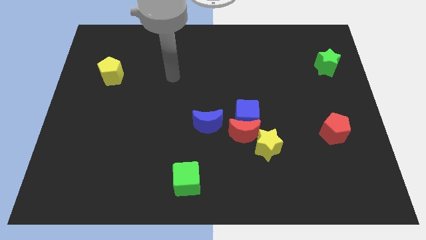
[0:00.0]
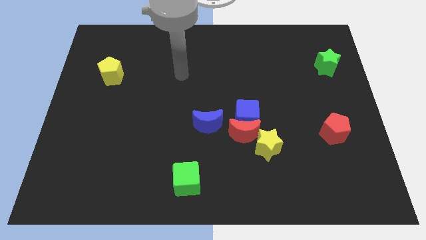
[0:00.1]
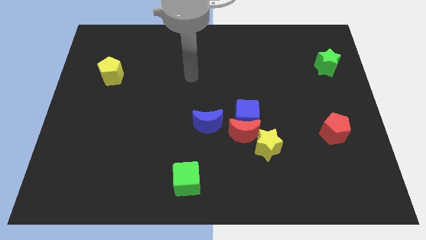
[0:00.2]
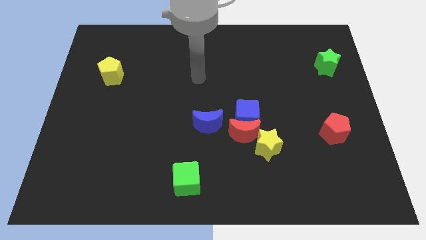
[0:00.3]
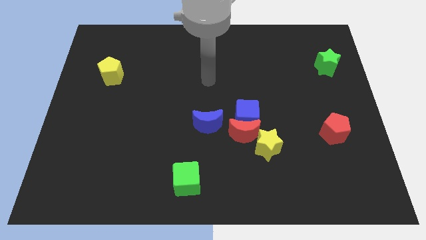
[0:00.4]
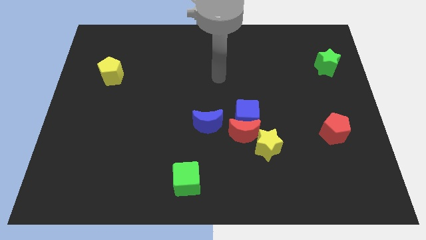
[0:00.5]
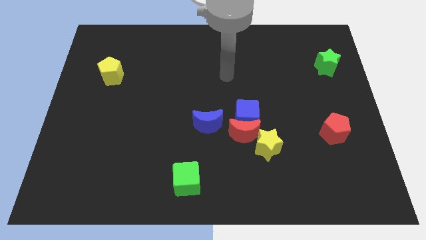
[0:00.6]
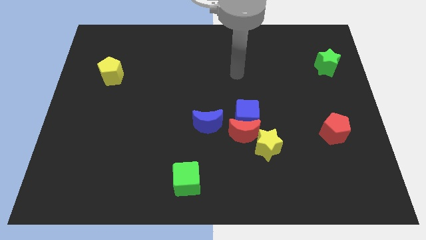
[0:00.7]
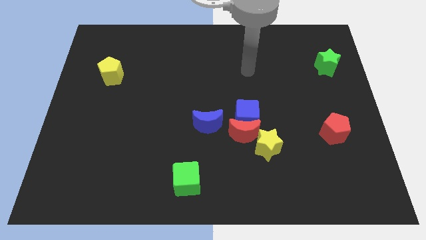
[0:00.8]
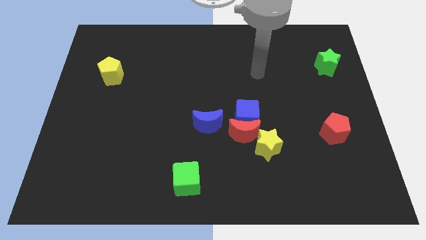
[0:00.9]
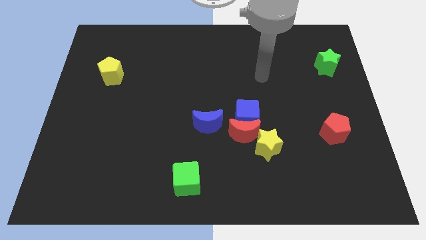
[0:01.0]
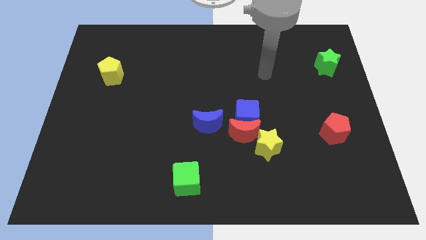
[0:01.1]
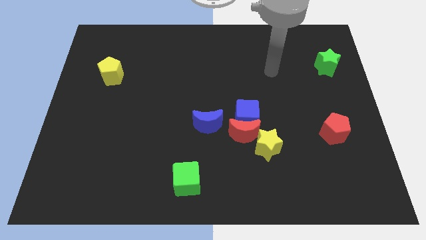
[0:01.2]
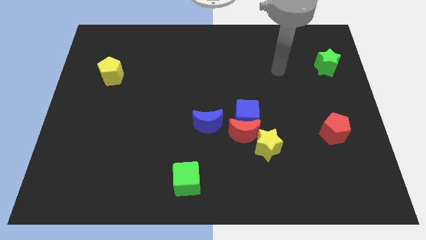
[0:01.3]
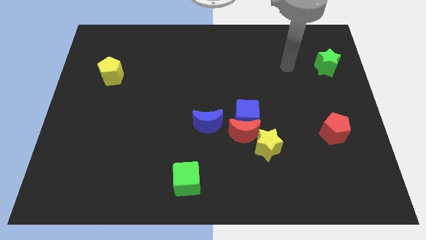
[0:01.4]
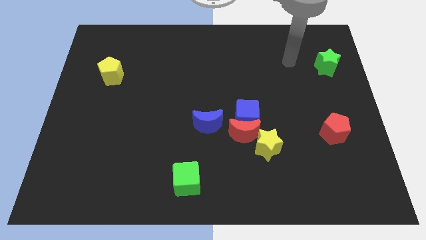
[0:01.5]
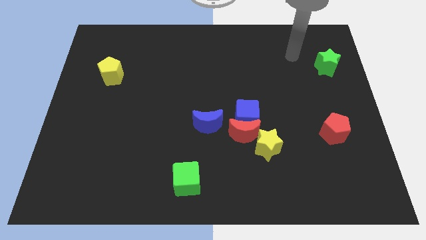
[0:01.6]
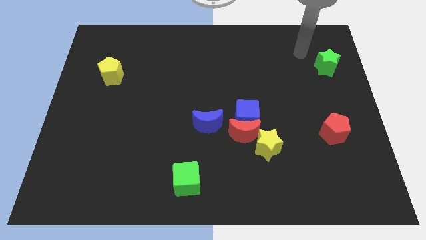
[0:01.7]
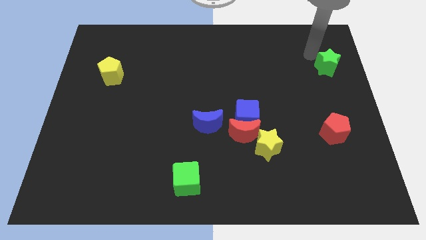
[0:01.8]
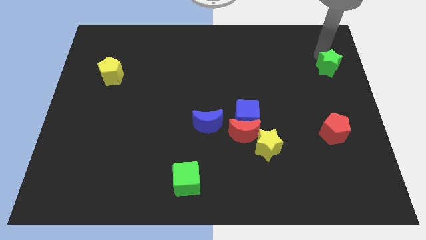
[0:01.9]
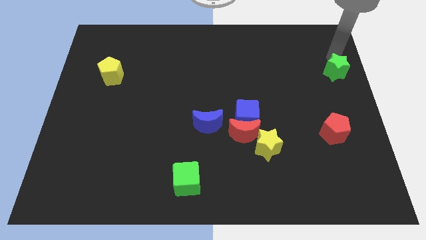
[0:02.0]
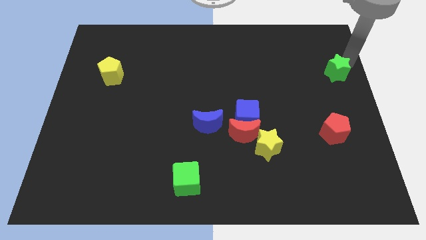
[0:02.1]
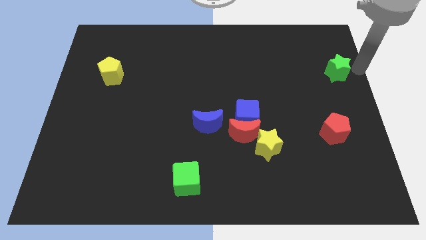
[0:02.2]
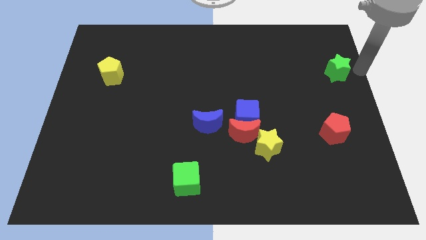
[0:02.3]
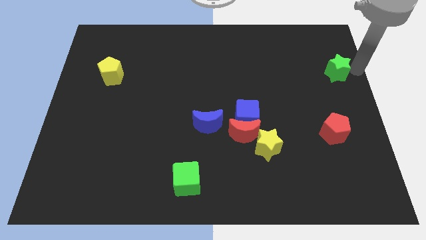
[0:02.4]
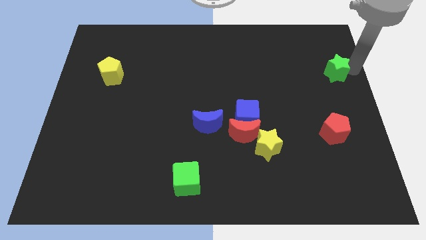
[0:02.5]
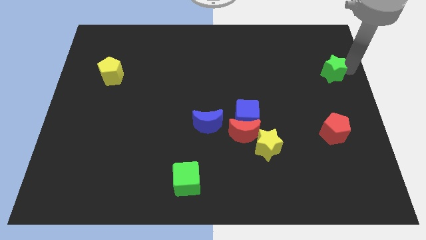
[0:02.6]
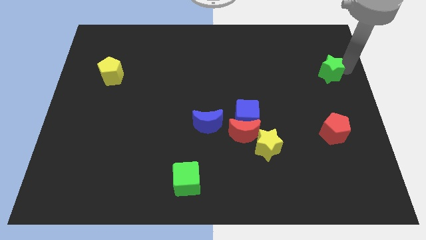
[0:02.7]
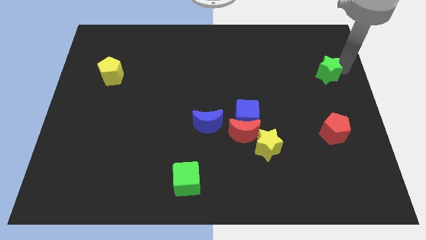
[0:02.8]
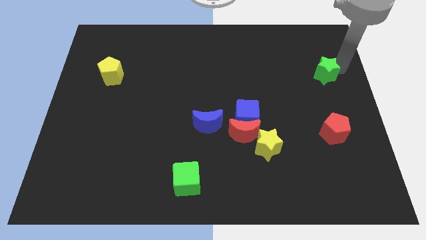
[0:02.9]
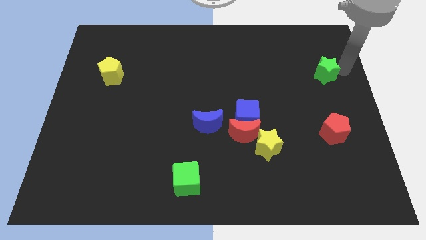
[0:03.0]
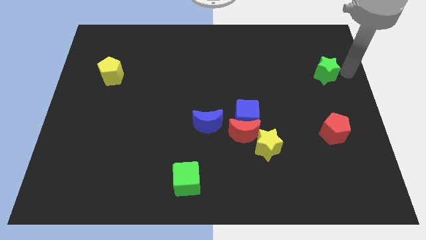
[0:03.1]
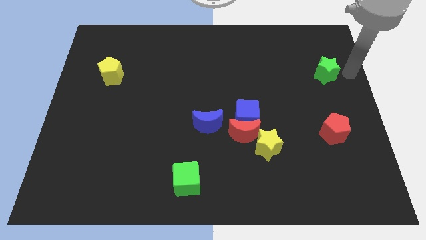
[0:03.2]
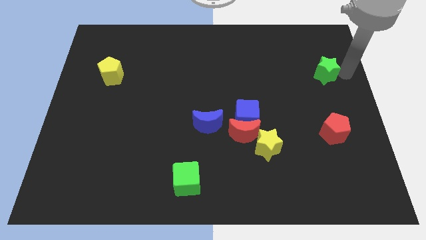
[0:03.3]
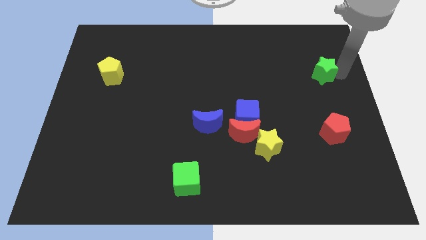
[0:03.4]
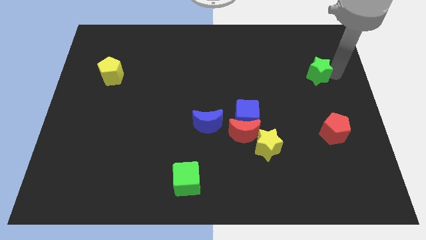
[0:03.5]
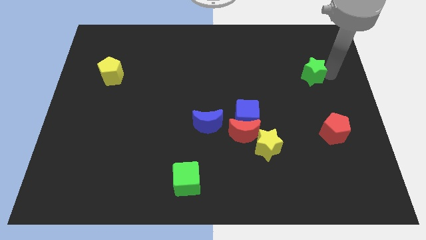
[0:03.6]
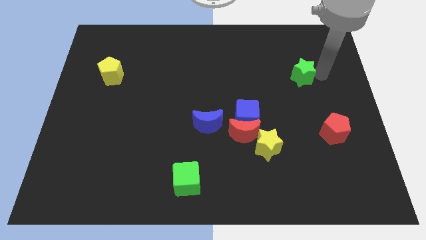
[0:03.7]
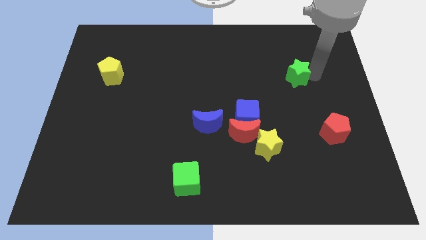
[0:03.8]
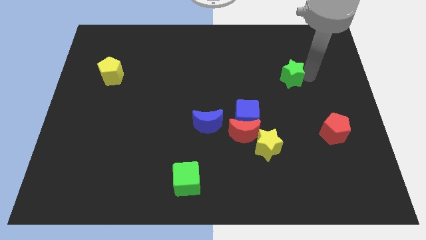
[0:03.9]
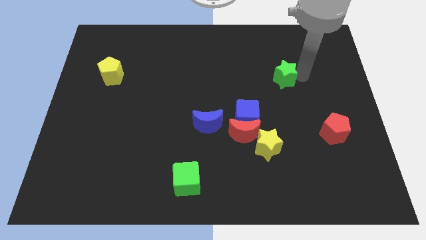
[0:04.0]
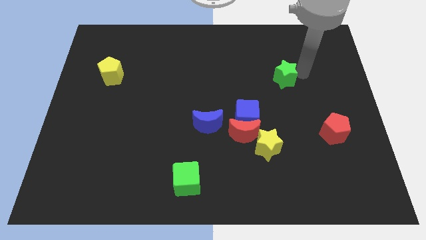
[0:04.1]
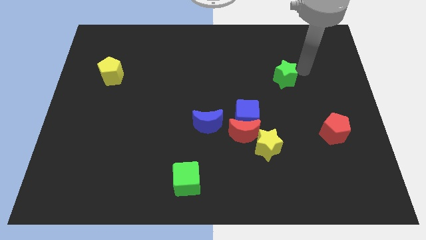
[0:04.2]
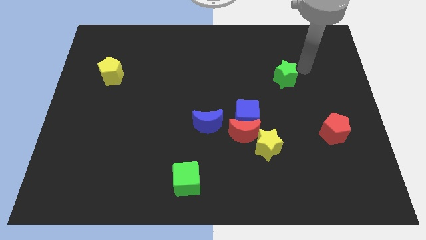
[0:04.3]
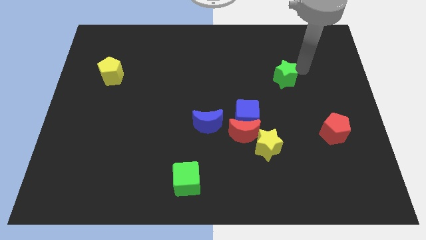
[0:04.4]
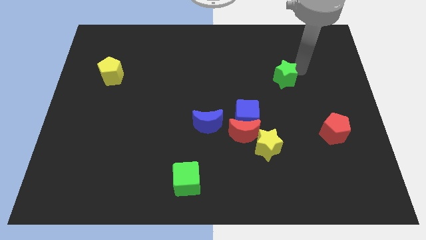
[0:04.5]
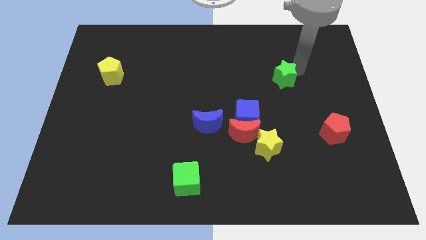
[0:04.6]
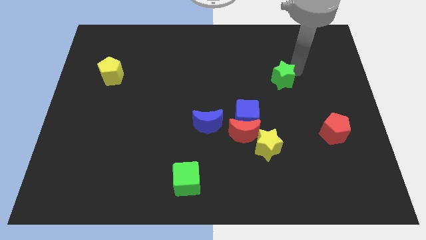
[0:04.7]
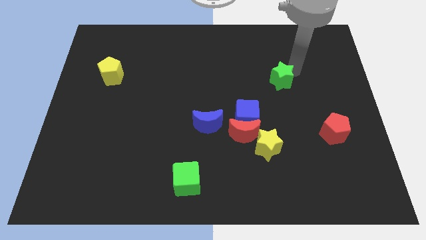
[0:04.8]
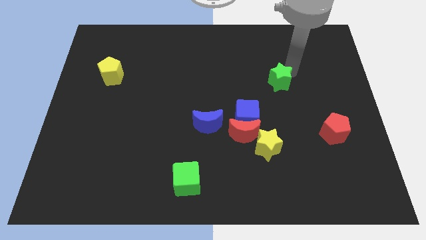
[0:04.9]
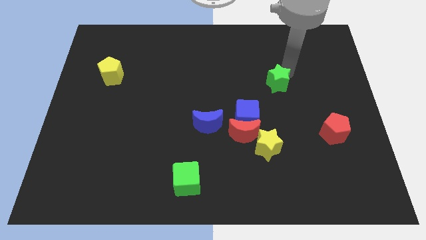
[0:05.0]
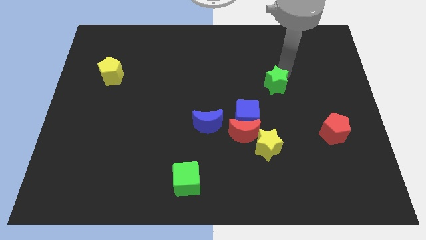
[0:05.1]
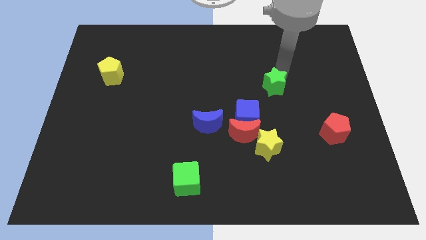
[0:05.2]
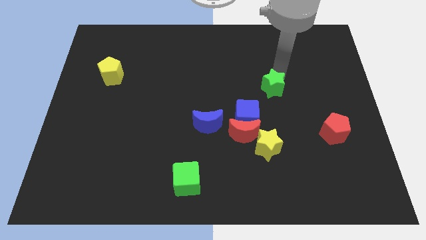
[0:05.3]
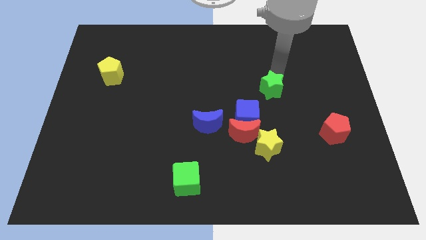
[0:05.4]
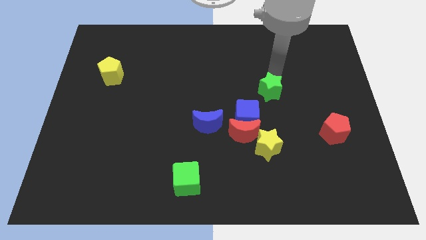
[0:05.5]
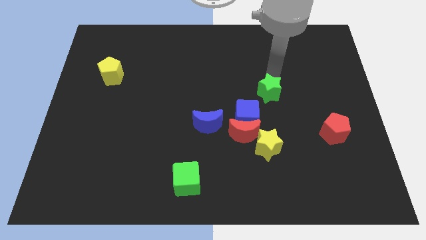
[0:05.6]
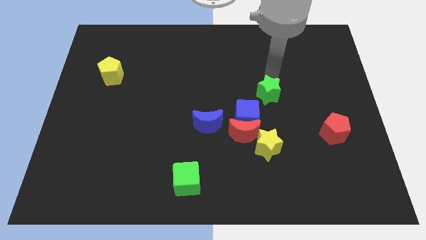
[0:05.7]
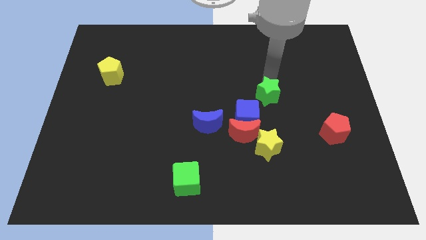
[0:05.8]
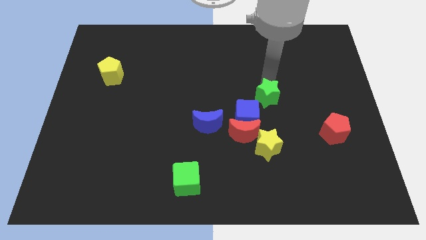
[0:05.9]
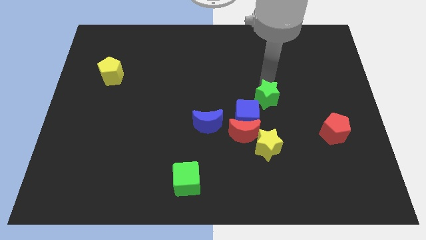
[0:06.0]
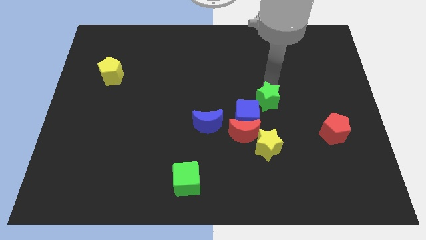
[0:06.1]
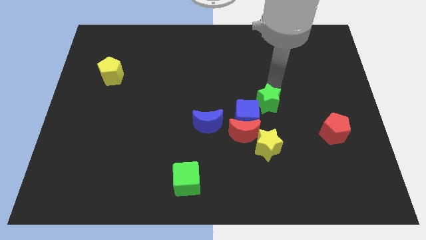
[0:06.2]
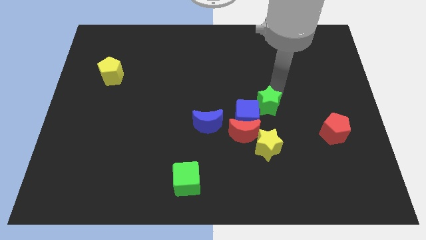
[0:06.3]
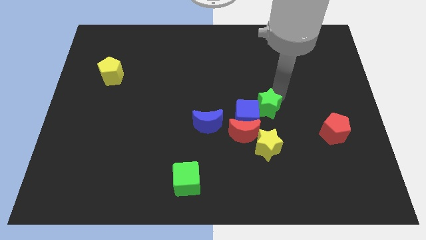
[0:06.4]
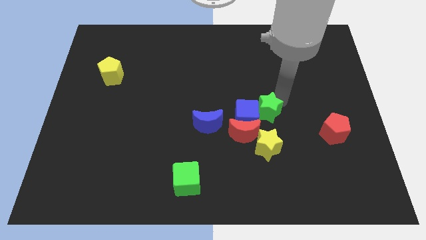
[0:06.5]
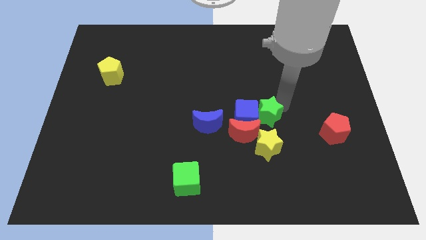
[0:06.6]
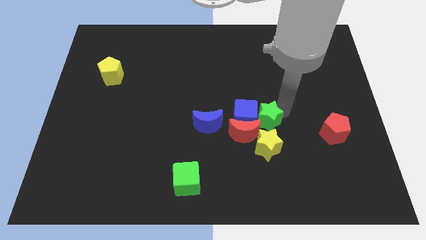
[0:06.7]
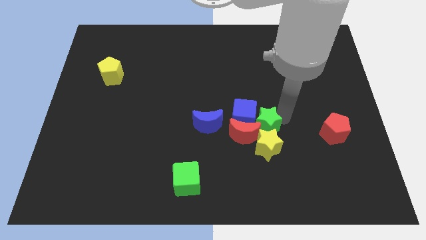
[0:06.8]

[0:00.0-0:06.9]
put the green star close to the red moon

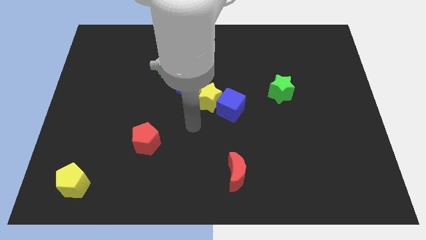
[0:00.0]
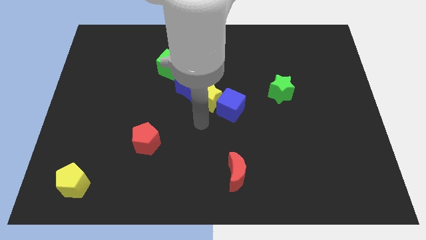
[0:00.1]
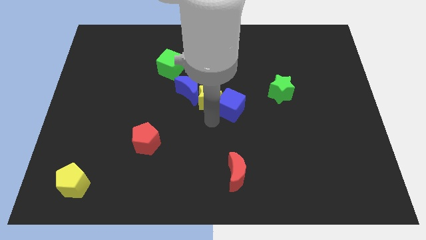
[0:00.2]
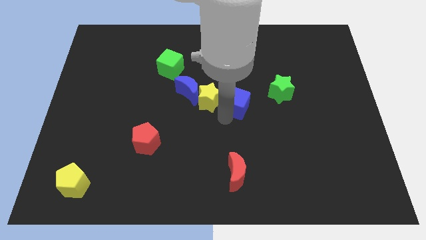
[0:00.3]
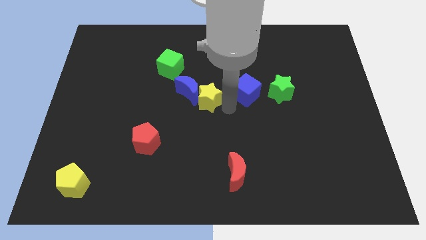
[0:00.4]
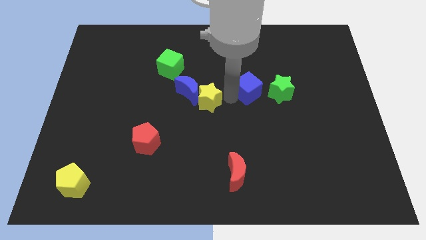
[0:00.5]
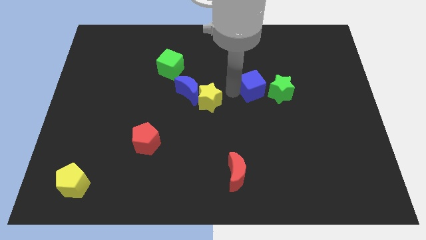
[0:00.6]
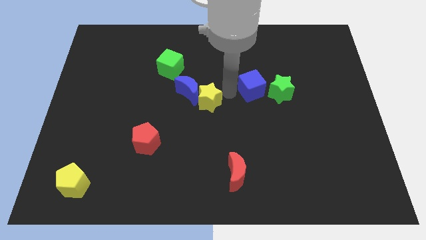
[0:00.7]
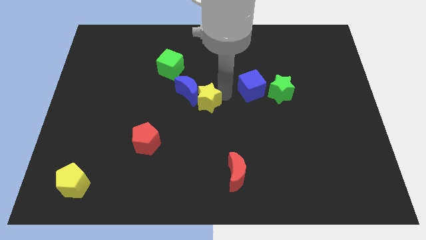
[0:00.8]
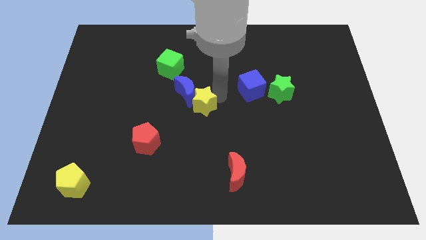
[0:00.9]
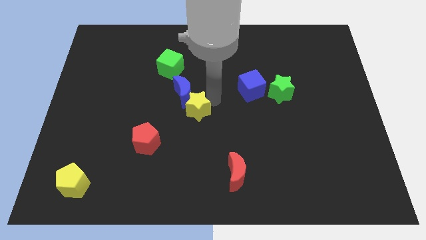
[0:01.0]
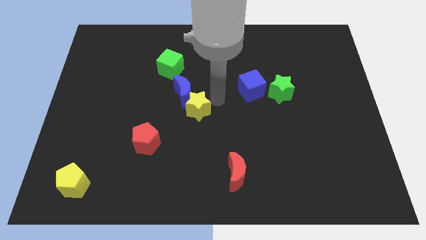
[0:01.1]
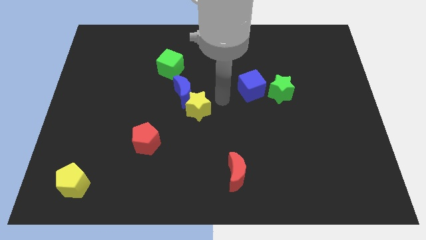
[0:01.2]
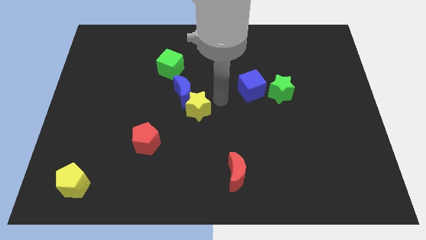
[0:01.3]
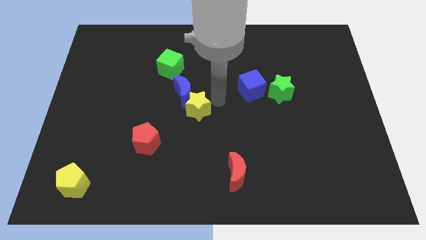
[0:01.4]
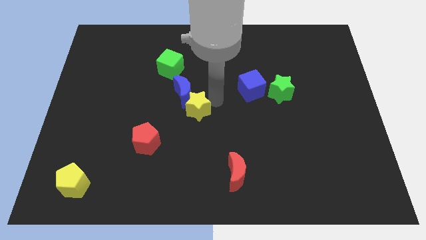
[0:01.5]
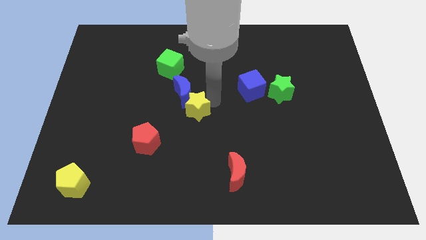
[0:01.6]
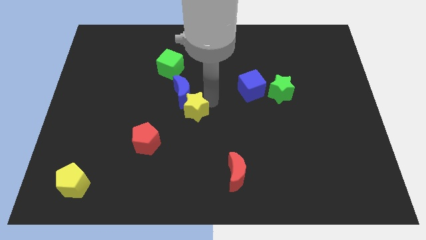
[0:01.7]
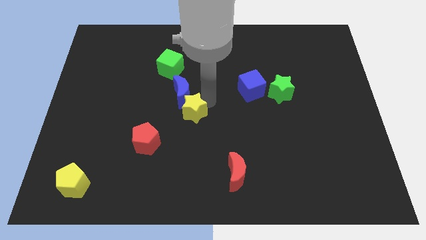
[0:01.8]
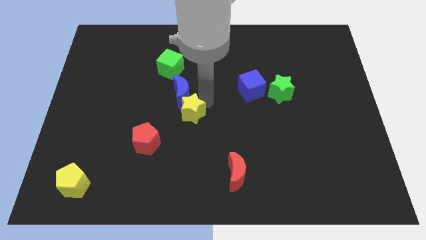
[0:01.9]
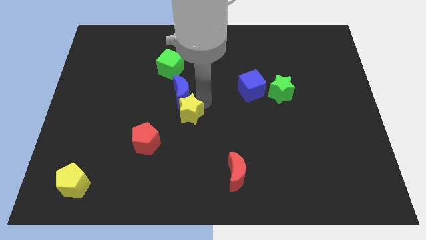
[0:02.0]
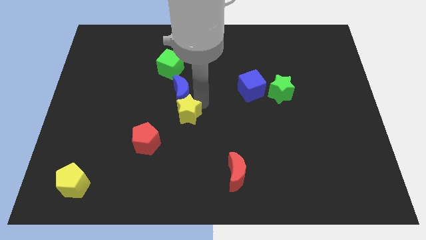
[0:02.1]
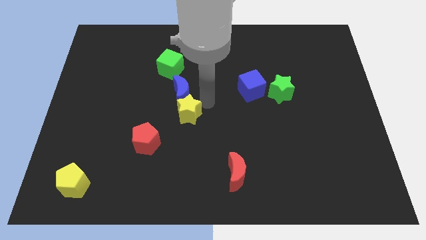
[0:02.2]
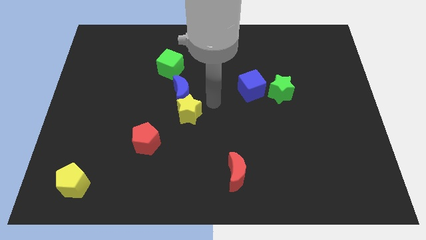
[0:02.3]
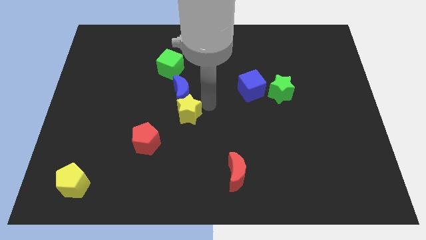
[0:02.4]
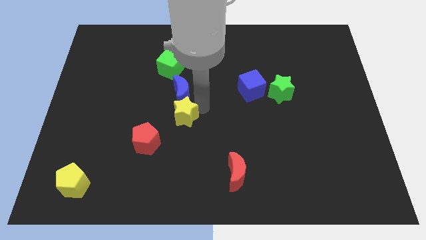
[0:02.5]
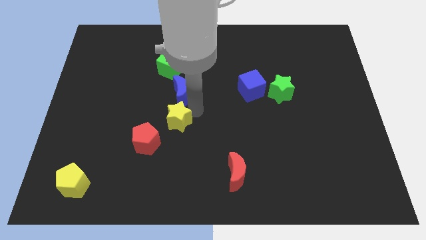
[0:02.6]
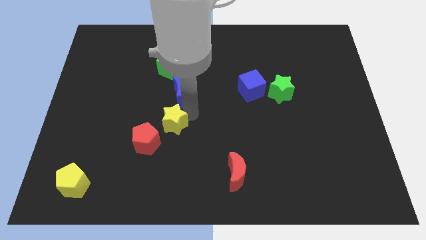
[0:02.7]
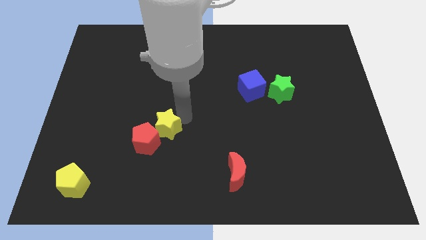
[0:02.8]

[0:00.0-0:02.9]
push the yellow star to the red pentagon
